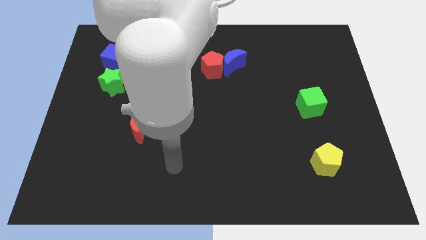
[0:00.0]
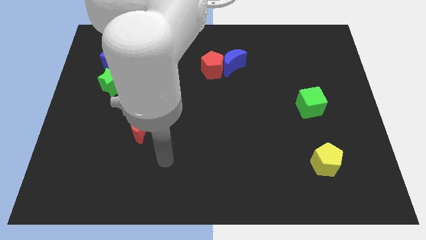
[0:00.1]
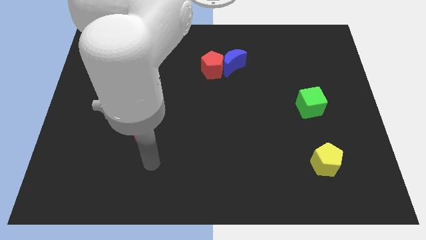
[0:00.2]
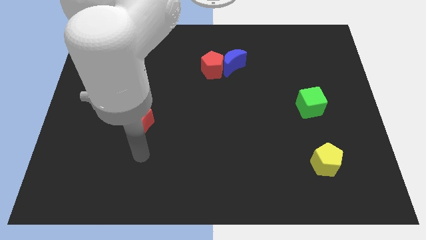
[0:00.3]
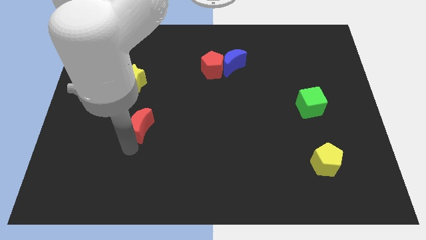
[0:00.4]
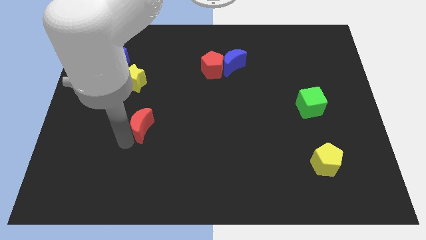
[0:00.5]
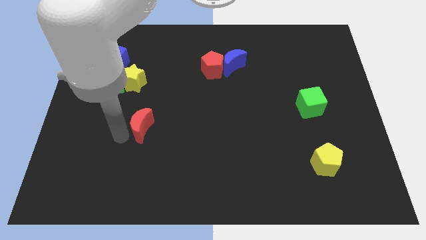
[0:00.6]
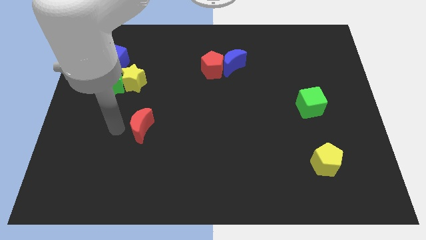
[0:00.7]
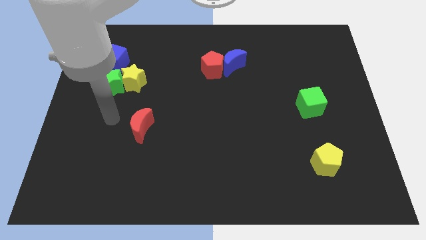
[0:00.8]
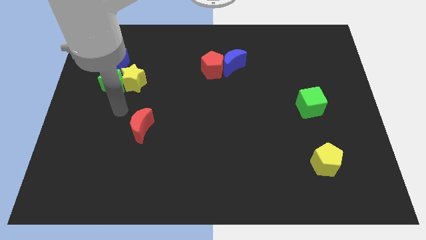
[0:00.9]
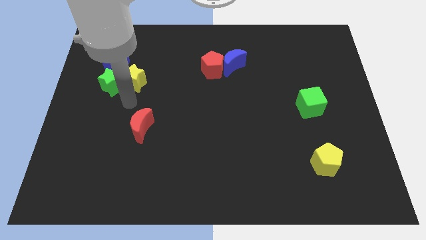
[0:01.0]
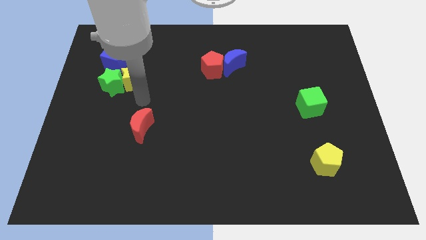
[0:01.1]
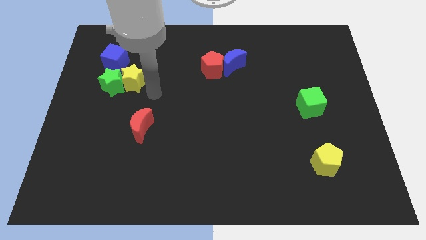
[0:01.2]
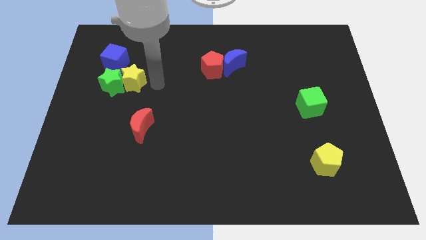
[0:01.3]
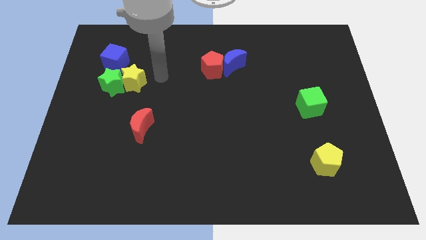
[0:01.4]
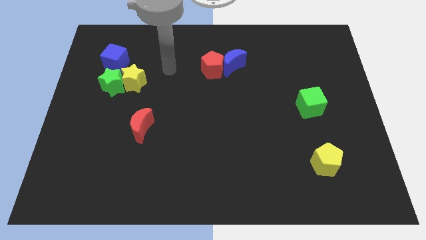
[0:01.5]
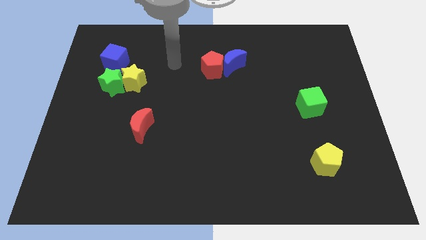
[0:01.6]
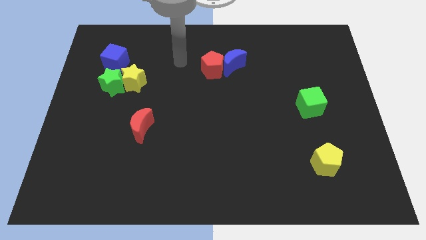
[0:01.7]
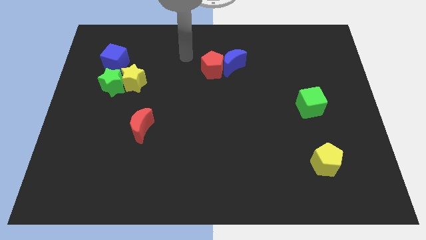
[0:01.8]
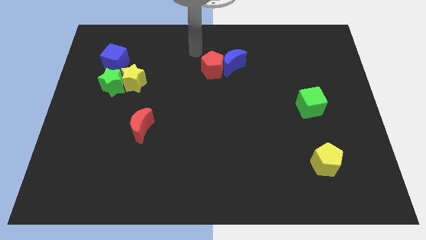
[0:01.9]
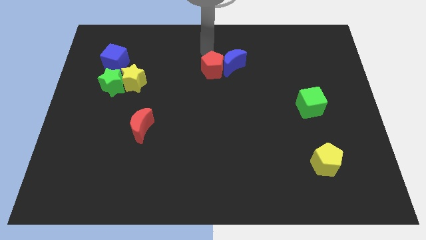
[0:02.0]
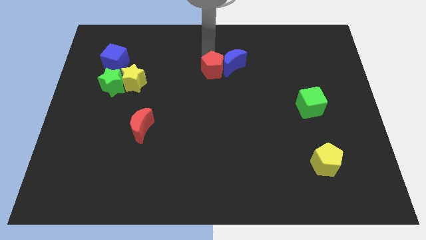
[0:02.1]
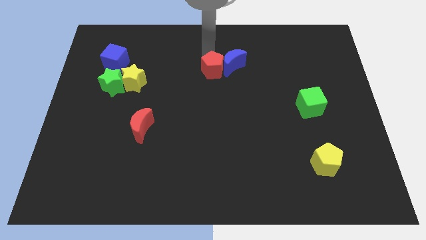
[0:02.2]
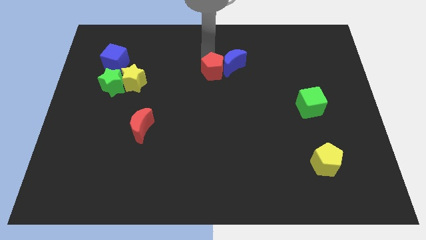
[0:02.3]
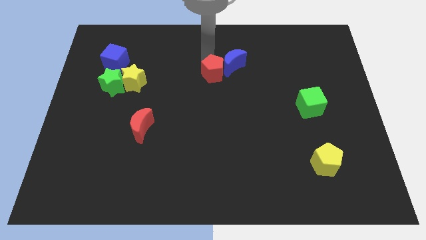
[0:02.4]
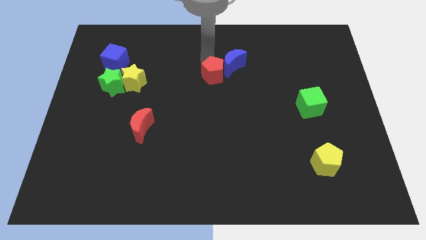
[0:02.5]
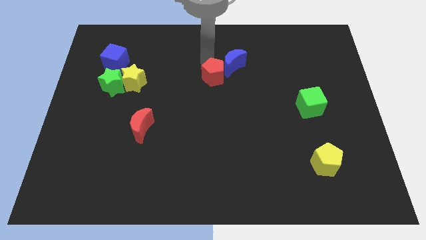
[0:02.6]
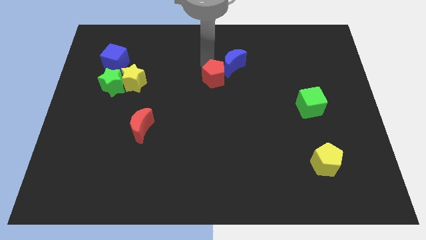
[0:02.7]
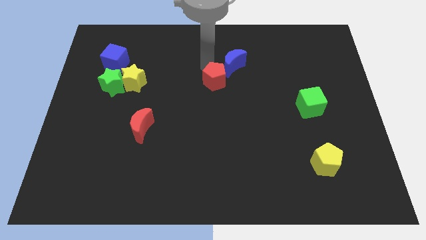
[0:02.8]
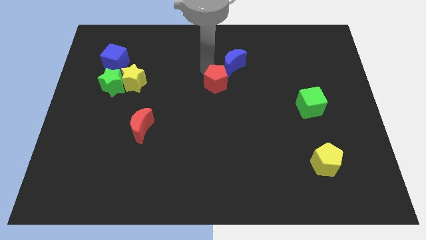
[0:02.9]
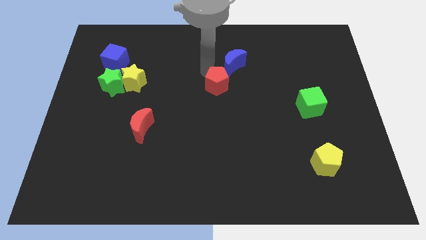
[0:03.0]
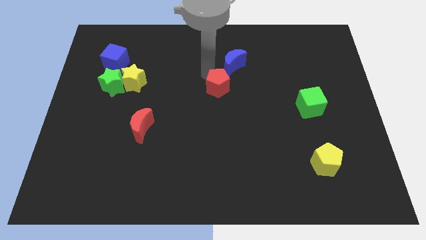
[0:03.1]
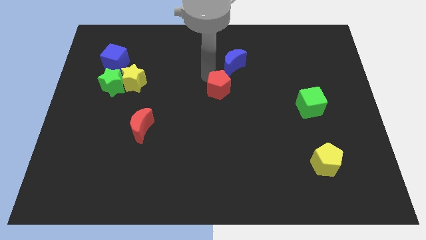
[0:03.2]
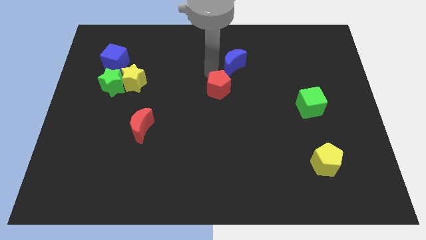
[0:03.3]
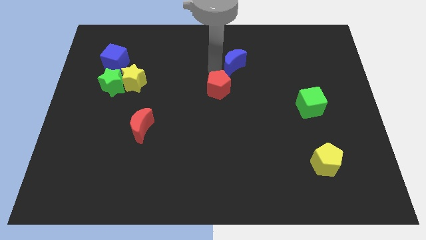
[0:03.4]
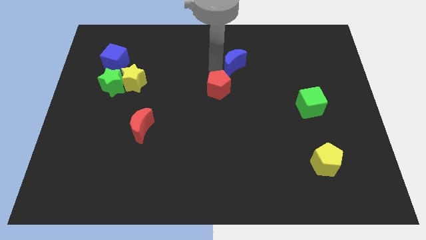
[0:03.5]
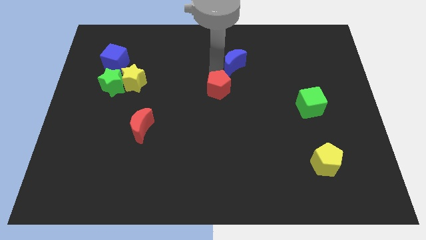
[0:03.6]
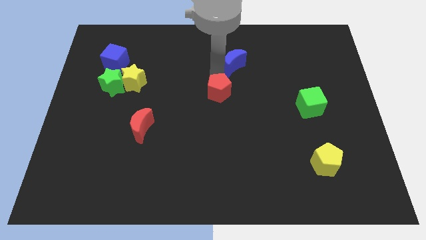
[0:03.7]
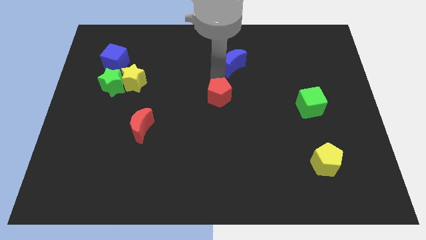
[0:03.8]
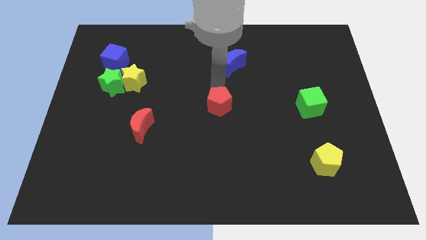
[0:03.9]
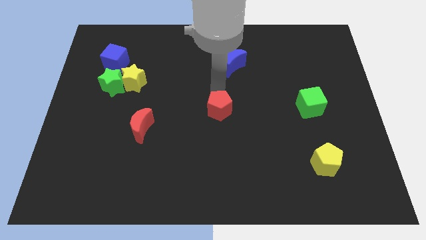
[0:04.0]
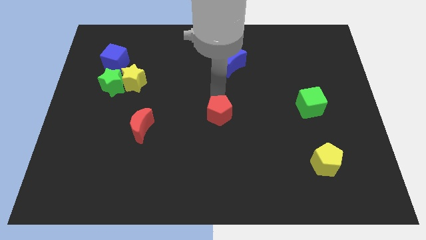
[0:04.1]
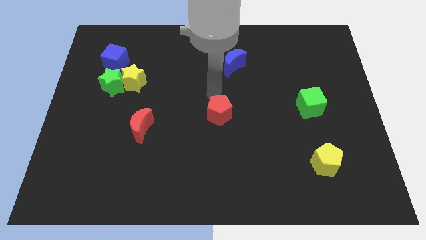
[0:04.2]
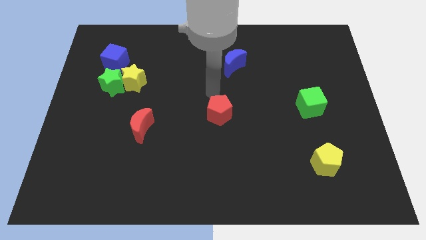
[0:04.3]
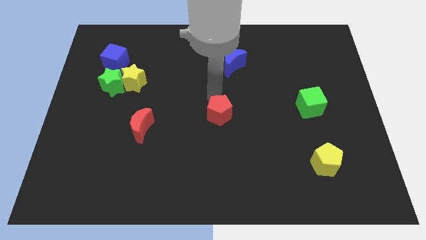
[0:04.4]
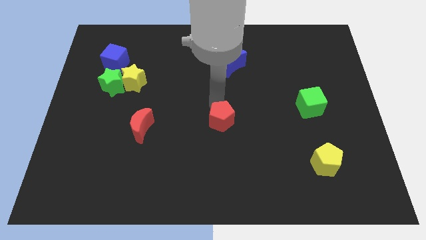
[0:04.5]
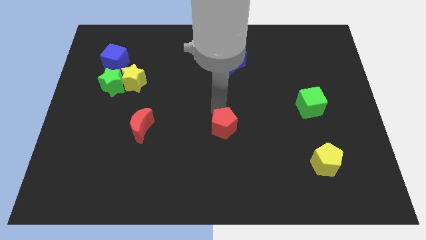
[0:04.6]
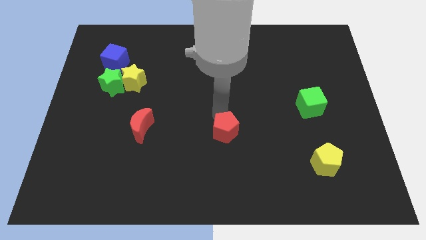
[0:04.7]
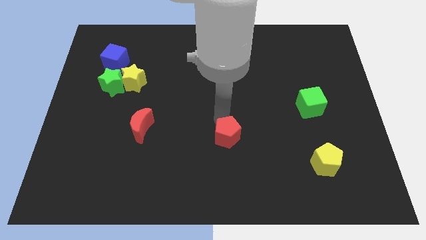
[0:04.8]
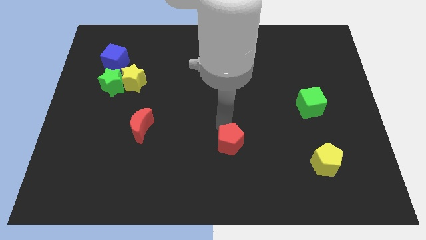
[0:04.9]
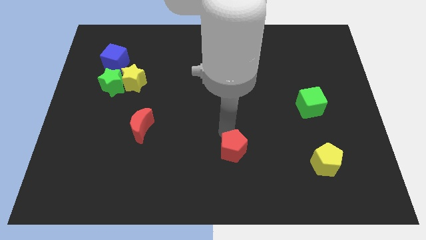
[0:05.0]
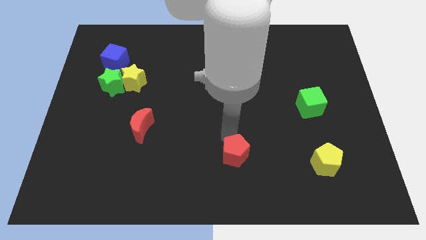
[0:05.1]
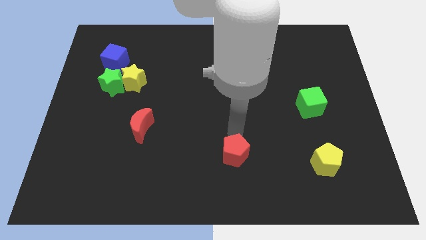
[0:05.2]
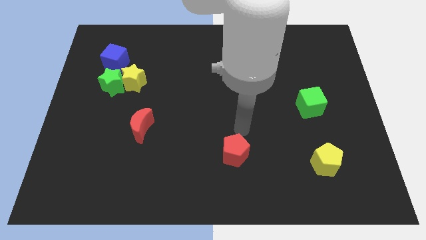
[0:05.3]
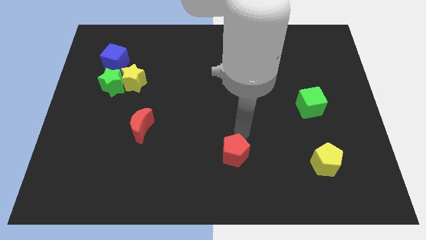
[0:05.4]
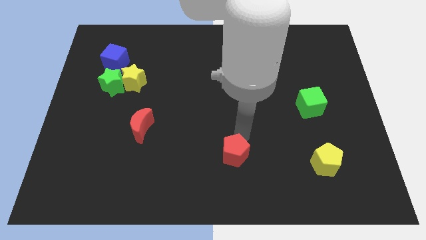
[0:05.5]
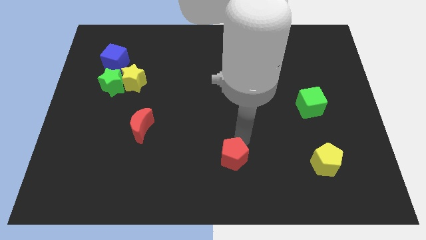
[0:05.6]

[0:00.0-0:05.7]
push the red pentagon to the bottom

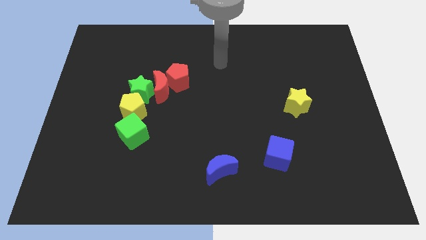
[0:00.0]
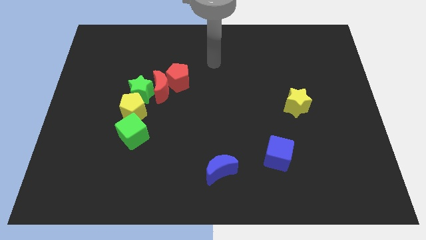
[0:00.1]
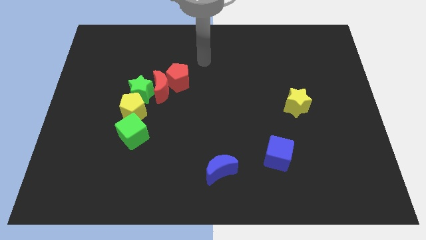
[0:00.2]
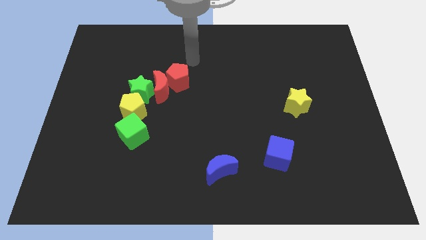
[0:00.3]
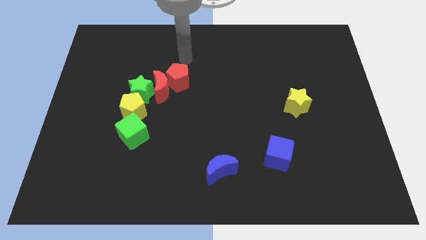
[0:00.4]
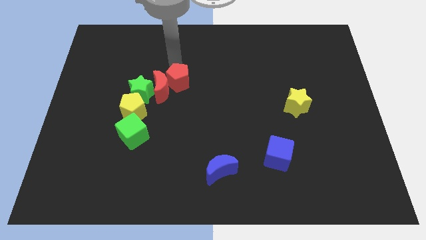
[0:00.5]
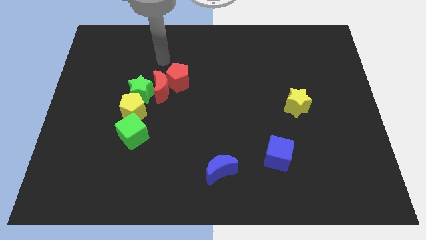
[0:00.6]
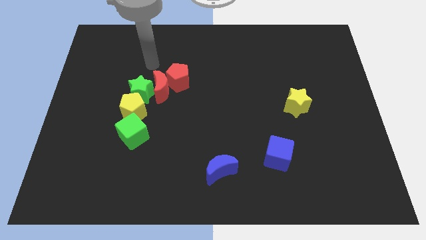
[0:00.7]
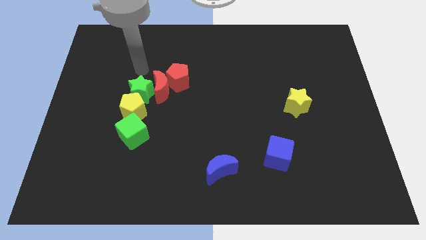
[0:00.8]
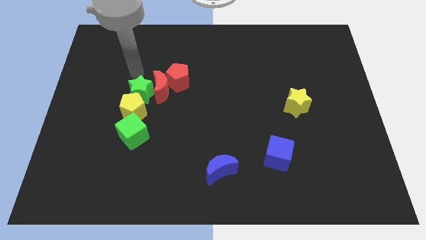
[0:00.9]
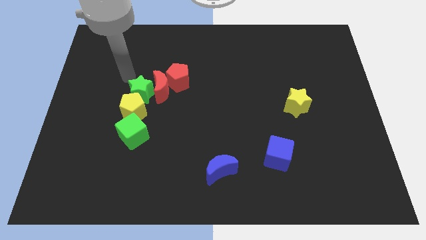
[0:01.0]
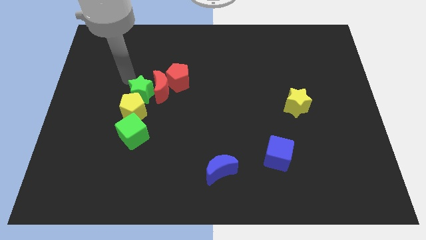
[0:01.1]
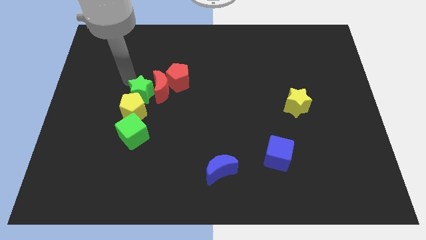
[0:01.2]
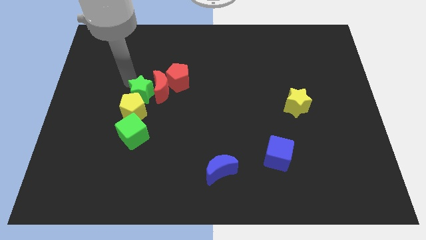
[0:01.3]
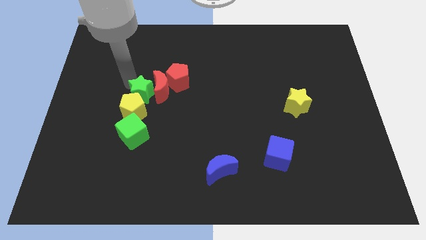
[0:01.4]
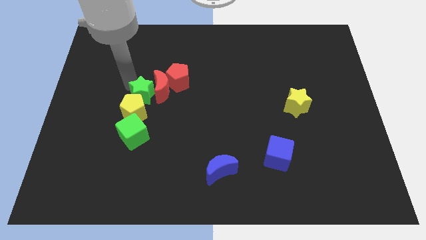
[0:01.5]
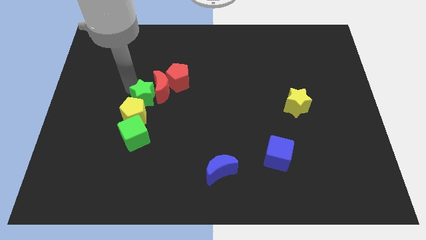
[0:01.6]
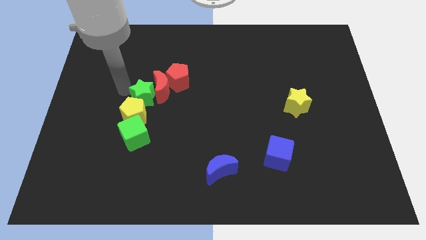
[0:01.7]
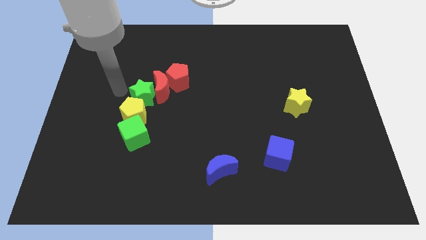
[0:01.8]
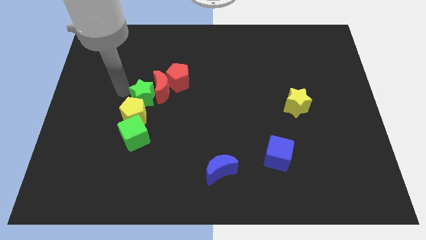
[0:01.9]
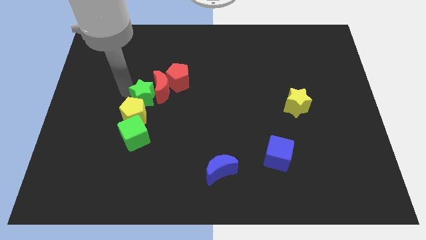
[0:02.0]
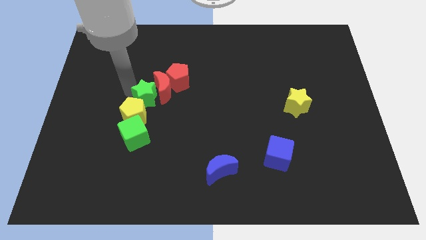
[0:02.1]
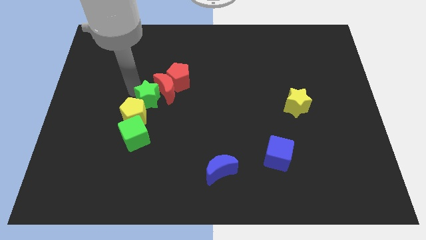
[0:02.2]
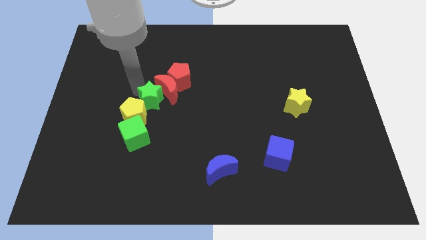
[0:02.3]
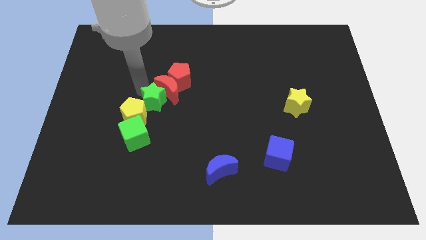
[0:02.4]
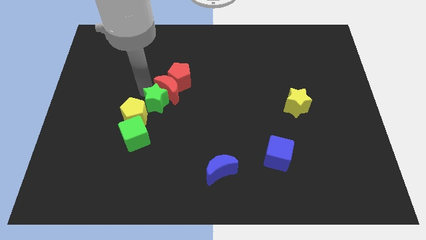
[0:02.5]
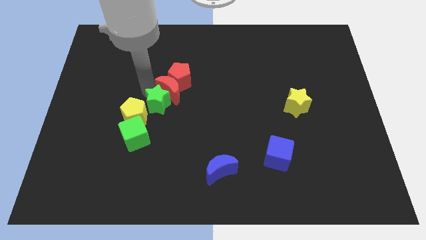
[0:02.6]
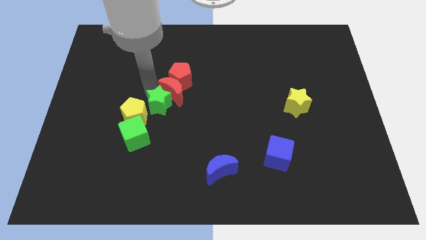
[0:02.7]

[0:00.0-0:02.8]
push the green star to the center of the board
